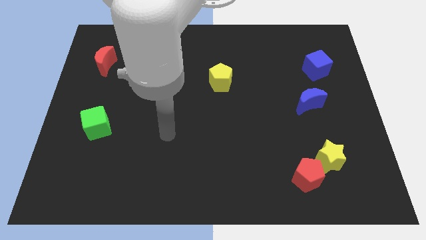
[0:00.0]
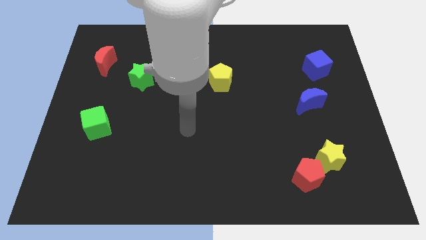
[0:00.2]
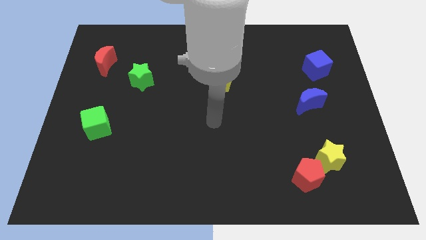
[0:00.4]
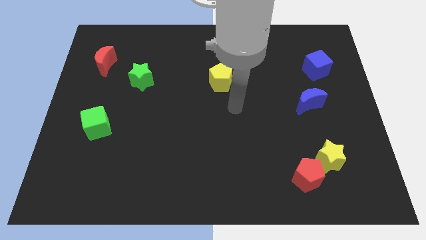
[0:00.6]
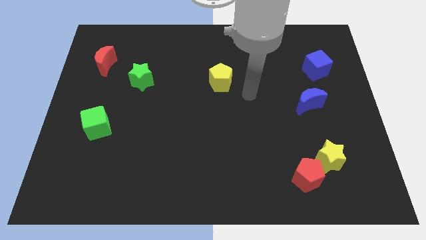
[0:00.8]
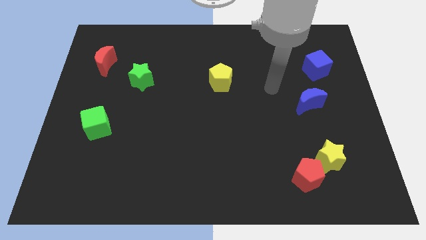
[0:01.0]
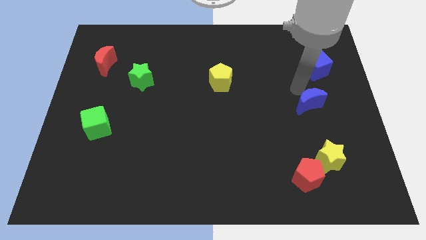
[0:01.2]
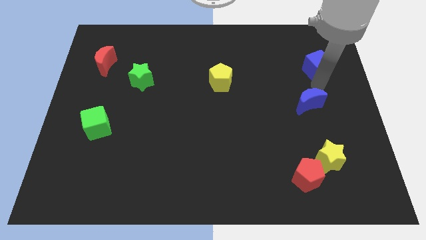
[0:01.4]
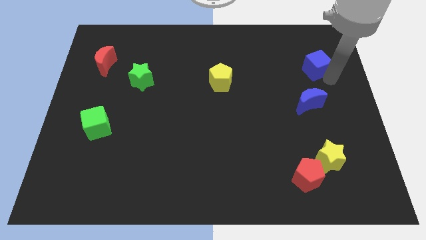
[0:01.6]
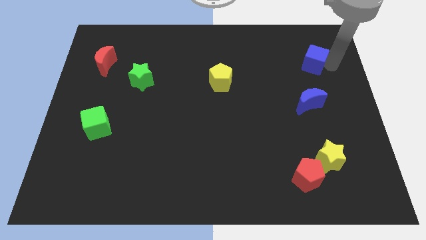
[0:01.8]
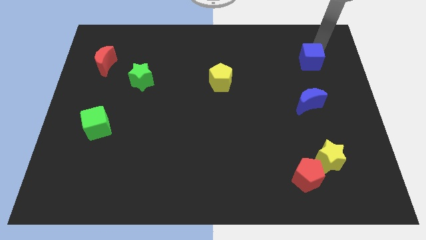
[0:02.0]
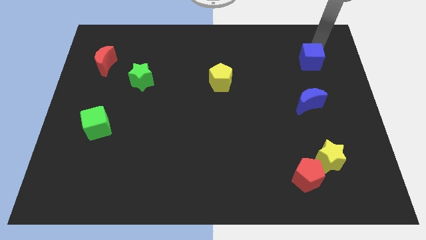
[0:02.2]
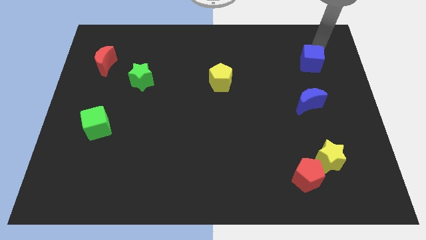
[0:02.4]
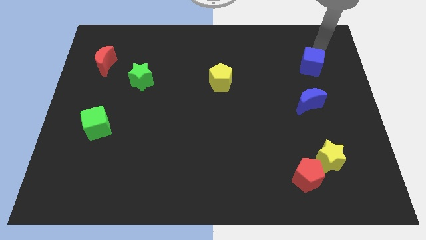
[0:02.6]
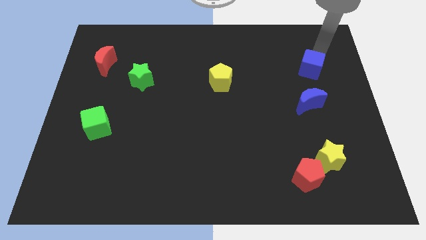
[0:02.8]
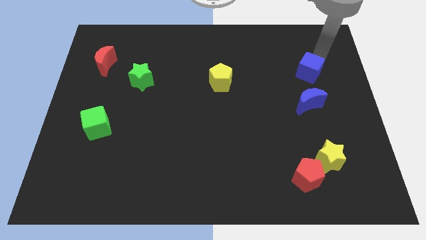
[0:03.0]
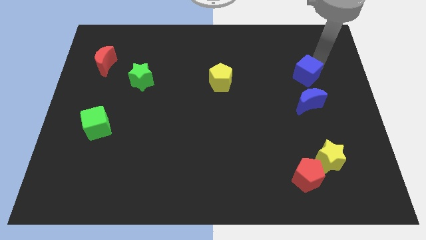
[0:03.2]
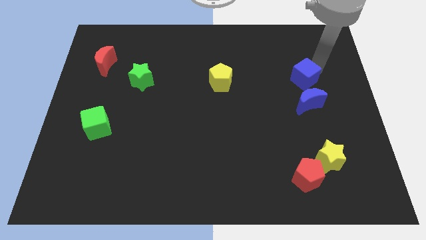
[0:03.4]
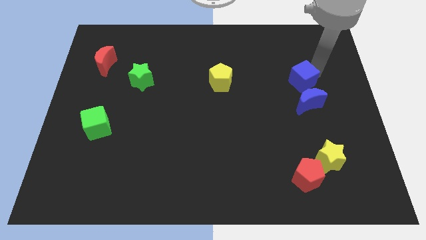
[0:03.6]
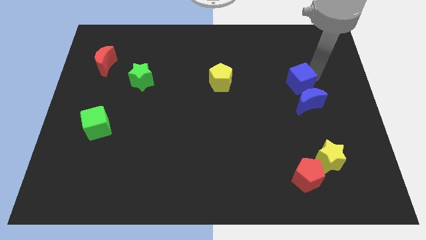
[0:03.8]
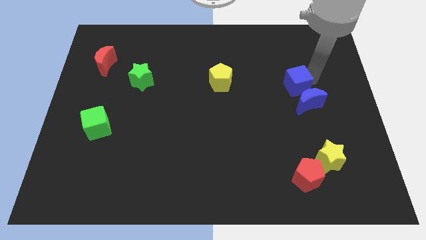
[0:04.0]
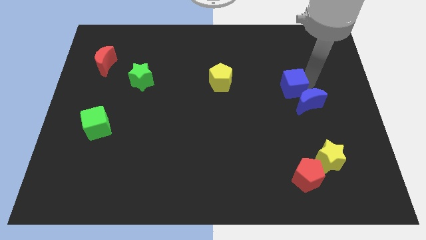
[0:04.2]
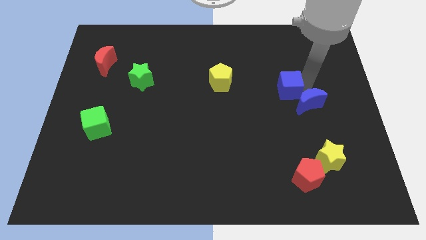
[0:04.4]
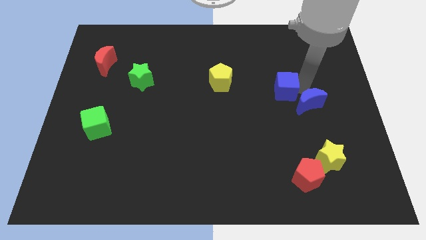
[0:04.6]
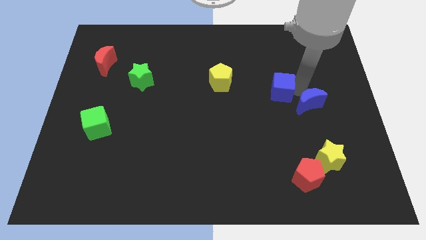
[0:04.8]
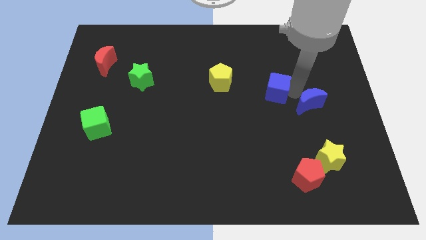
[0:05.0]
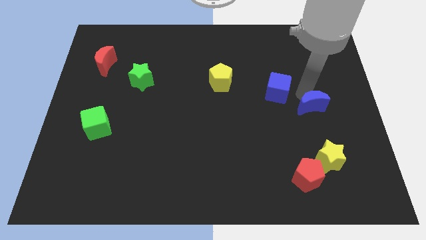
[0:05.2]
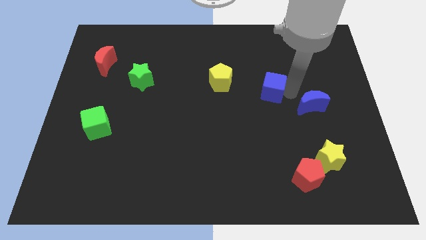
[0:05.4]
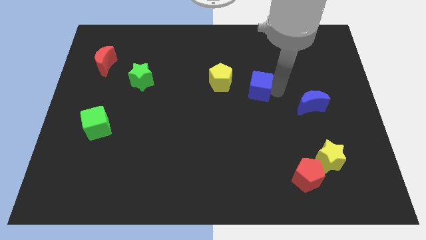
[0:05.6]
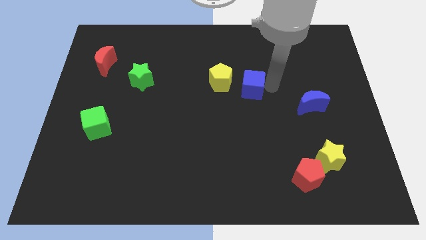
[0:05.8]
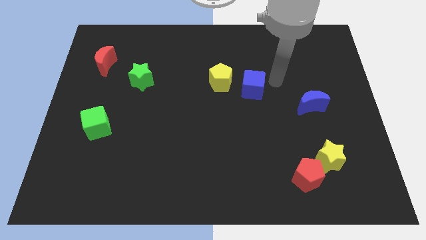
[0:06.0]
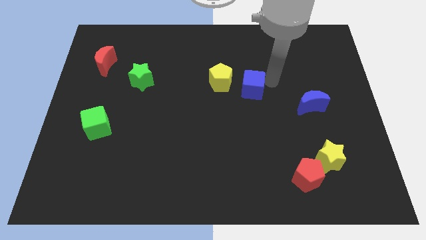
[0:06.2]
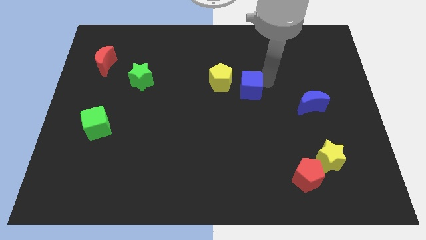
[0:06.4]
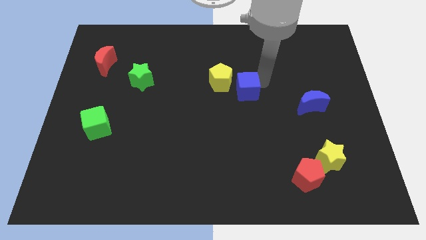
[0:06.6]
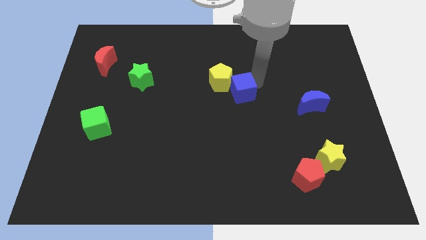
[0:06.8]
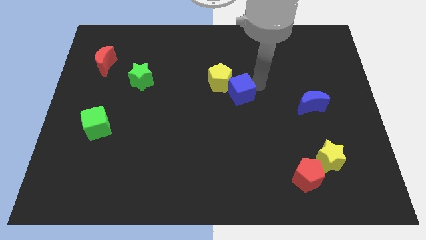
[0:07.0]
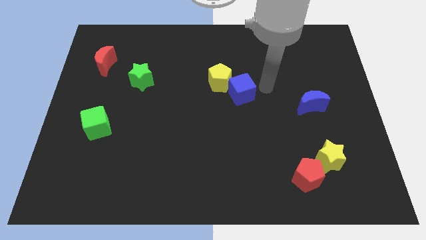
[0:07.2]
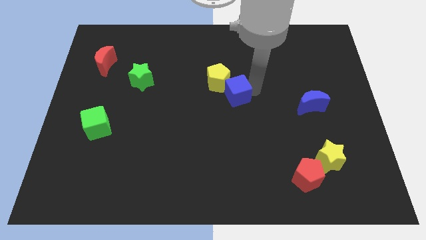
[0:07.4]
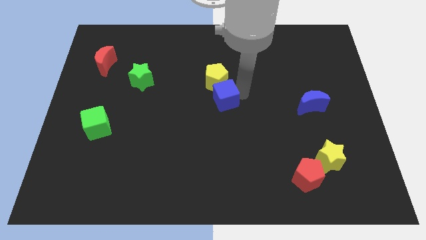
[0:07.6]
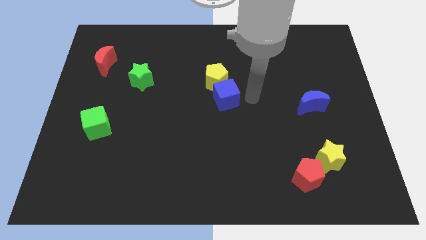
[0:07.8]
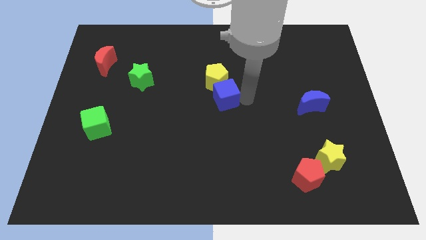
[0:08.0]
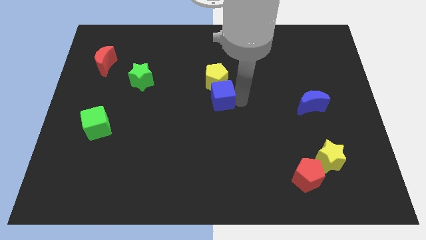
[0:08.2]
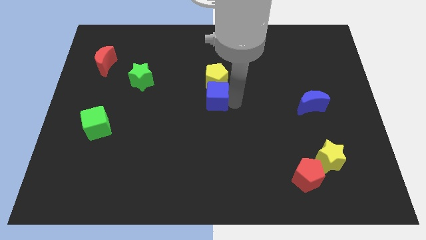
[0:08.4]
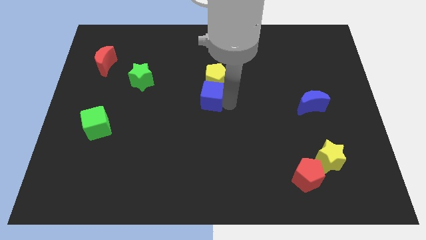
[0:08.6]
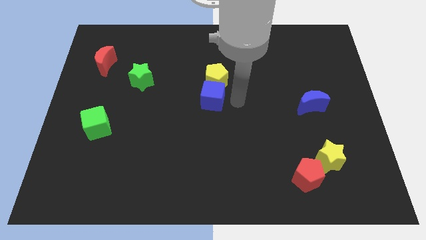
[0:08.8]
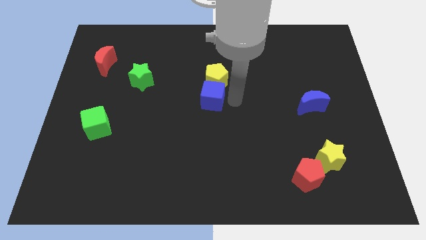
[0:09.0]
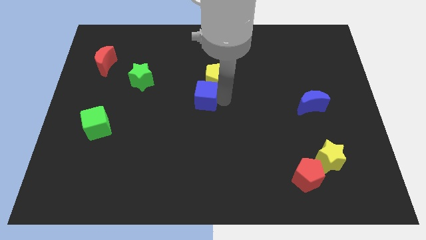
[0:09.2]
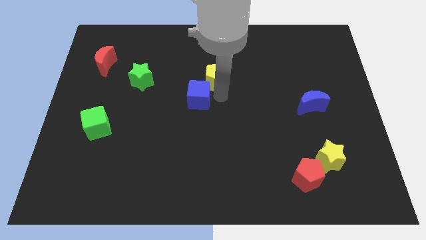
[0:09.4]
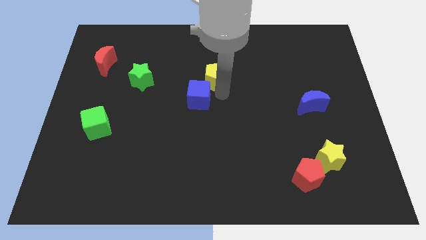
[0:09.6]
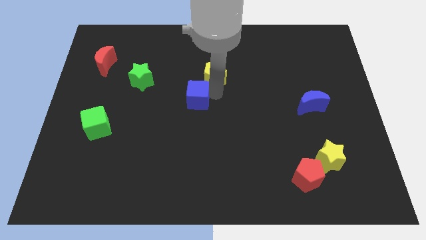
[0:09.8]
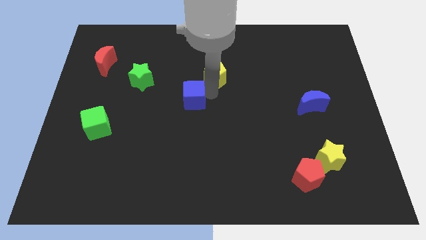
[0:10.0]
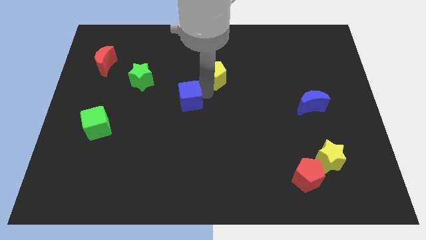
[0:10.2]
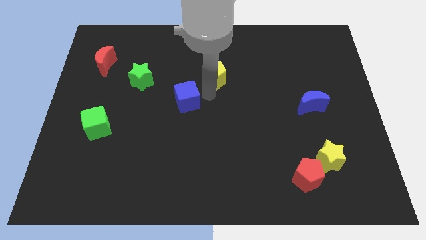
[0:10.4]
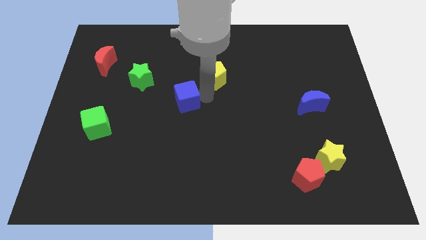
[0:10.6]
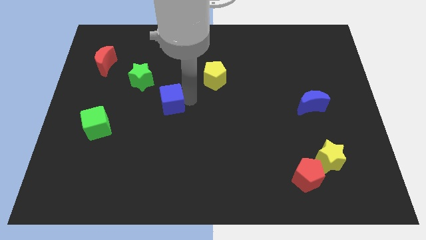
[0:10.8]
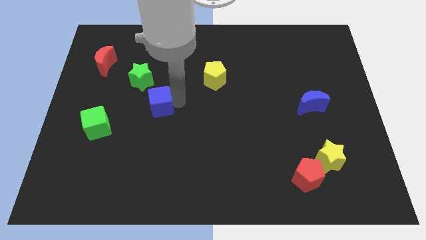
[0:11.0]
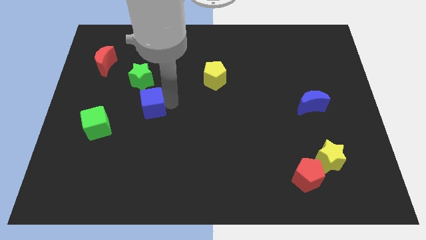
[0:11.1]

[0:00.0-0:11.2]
push the blue cube to the bottom of the green star

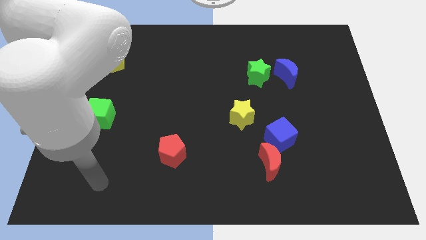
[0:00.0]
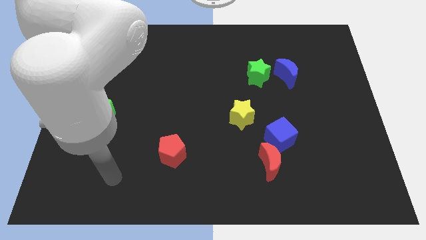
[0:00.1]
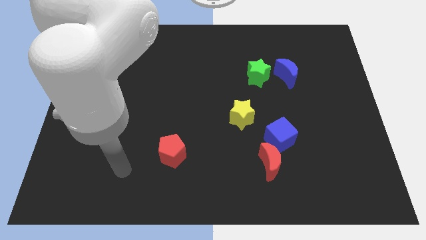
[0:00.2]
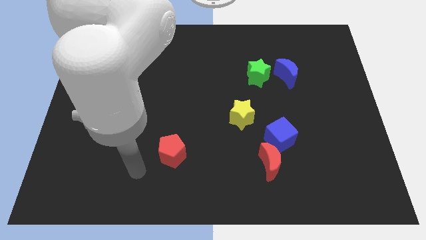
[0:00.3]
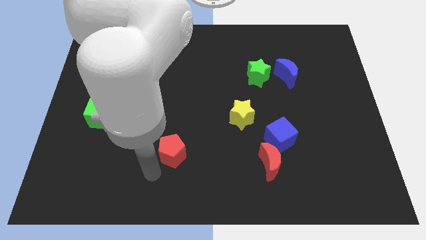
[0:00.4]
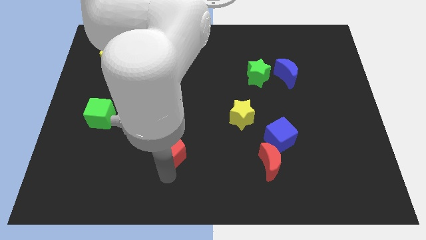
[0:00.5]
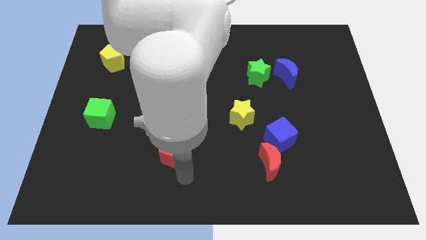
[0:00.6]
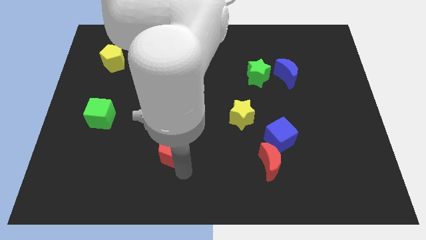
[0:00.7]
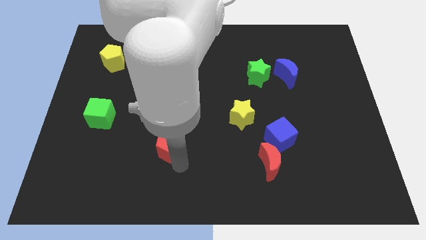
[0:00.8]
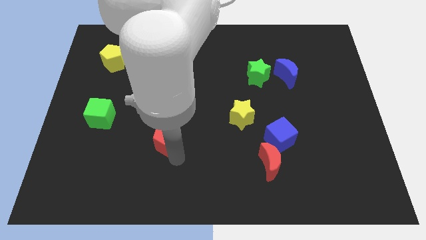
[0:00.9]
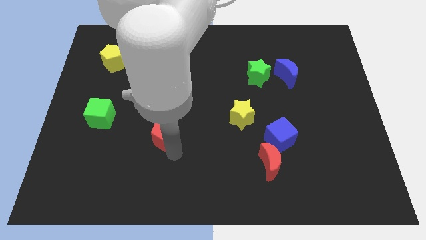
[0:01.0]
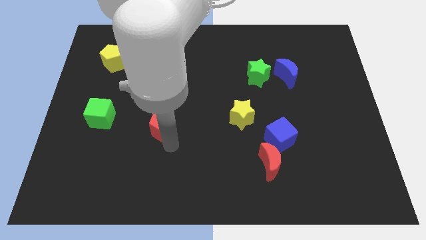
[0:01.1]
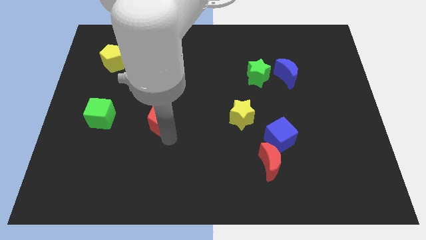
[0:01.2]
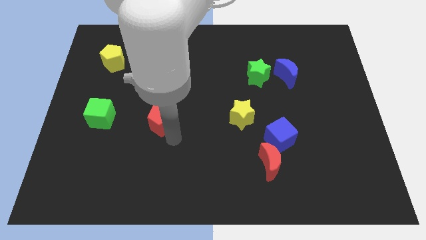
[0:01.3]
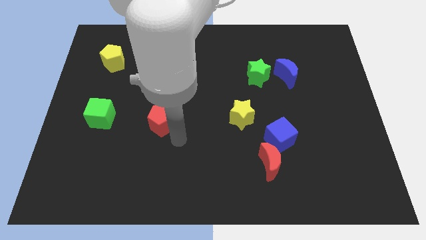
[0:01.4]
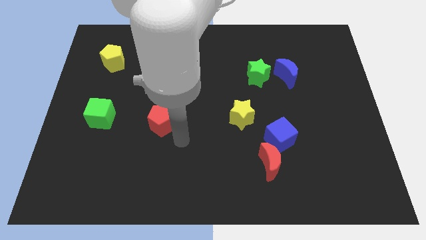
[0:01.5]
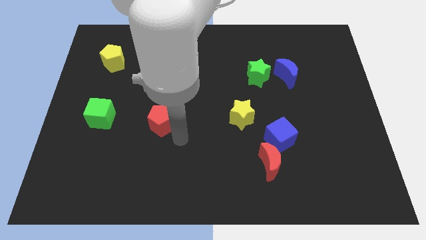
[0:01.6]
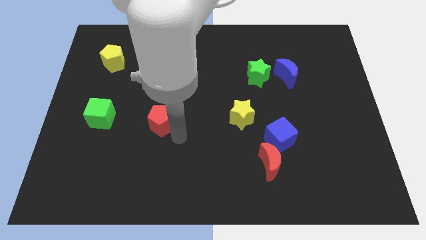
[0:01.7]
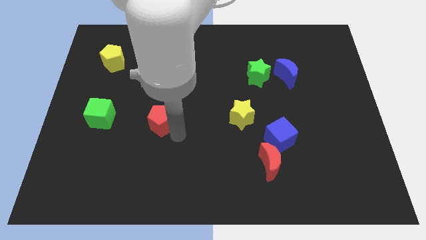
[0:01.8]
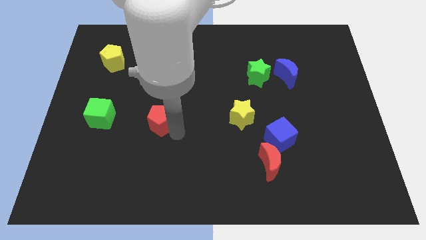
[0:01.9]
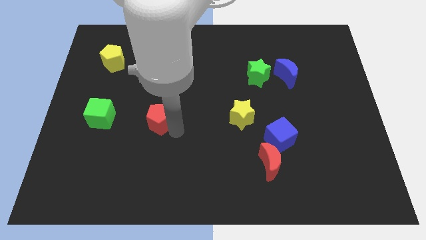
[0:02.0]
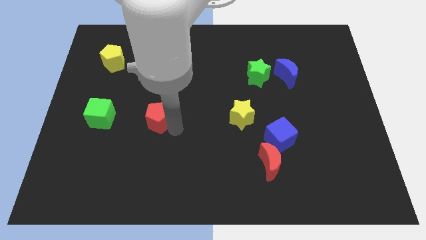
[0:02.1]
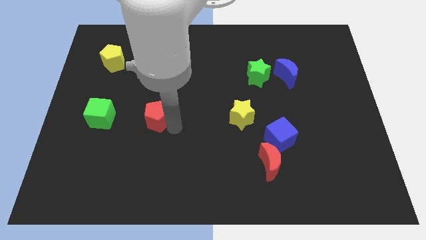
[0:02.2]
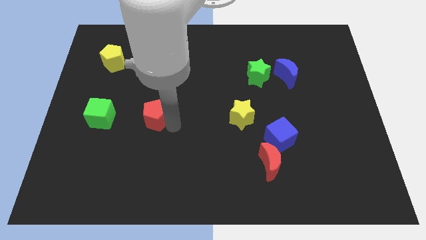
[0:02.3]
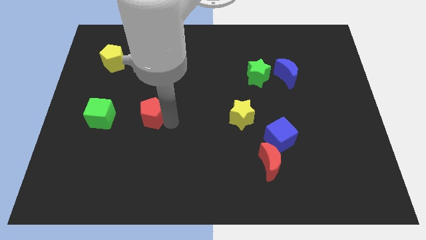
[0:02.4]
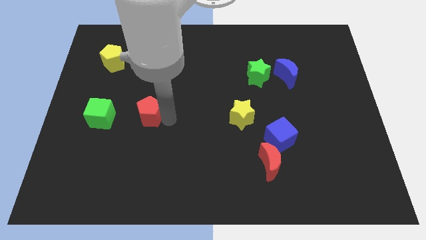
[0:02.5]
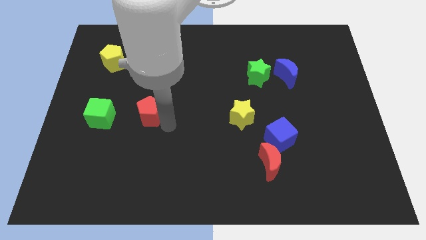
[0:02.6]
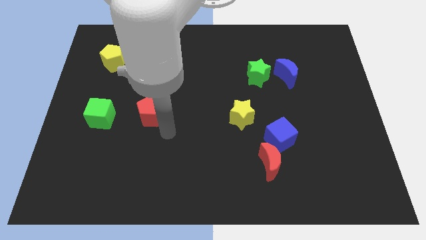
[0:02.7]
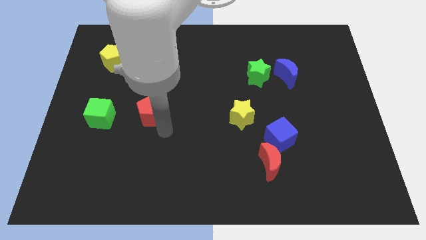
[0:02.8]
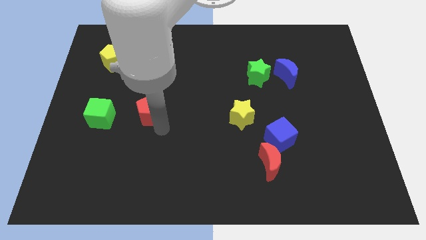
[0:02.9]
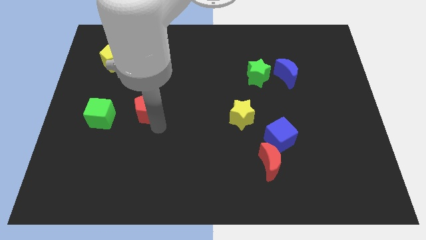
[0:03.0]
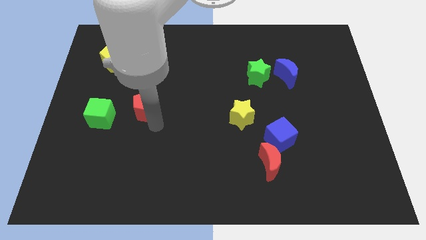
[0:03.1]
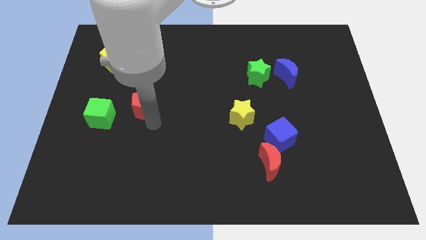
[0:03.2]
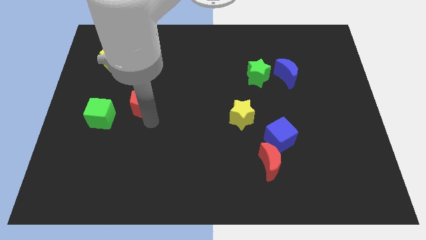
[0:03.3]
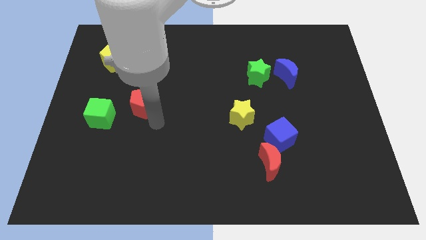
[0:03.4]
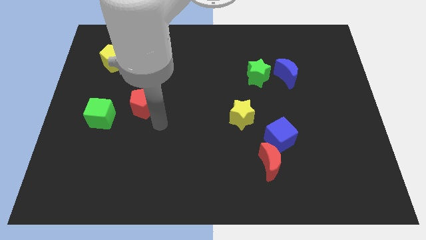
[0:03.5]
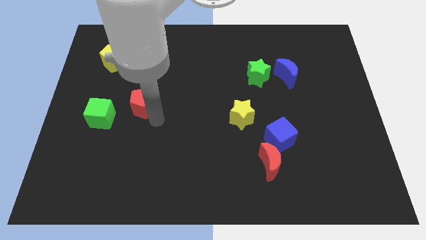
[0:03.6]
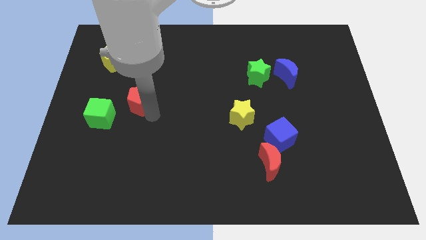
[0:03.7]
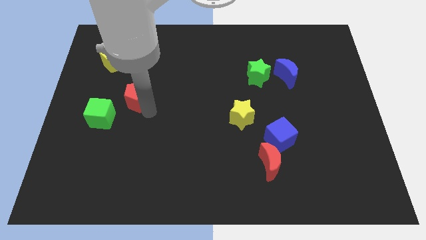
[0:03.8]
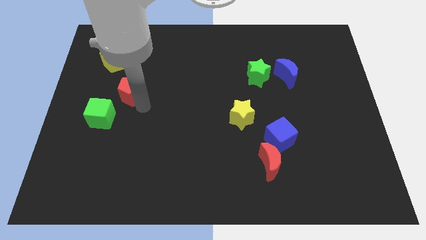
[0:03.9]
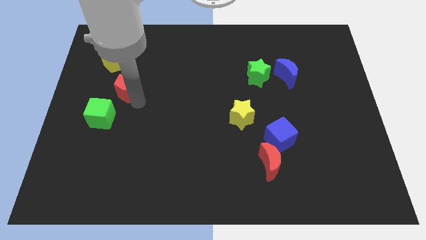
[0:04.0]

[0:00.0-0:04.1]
push the red pentagon to the bottom right side of the yellow pentagon
